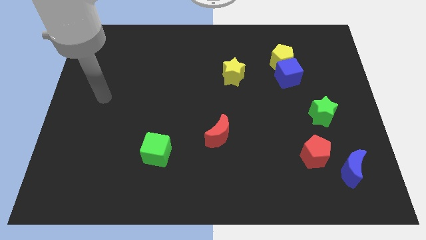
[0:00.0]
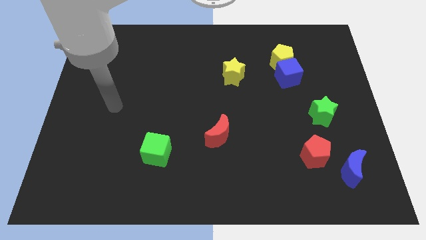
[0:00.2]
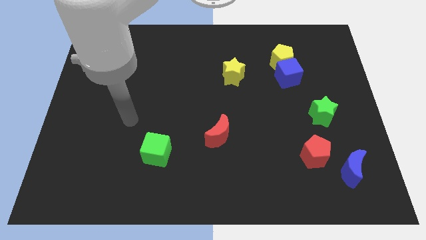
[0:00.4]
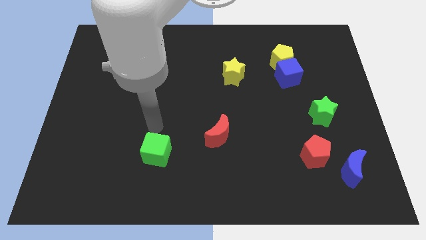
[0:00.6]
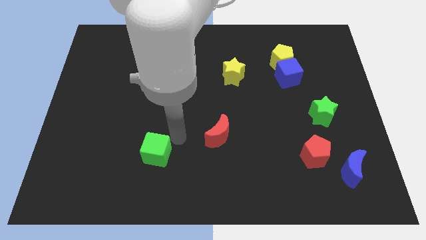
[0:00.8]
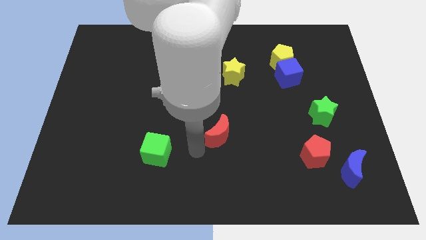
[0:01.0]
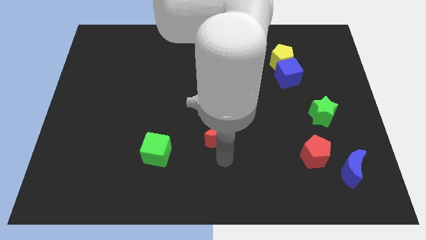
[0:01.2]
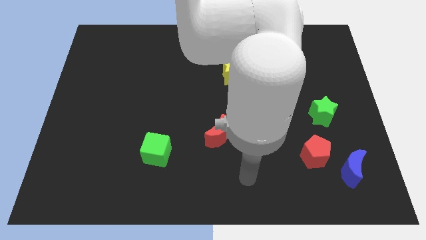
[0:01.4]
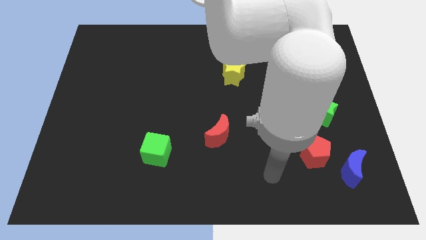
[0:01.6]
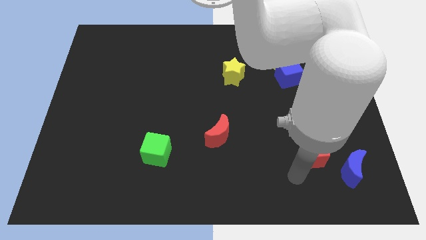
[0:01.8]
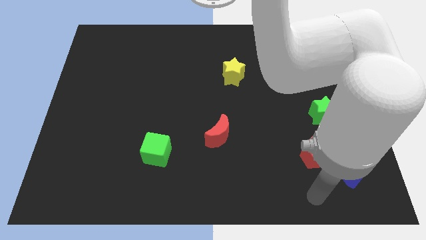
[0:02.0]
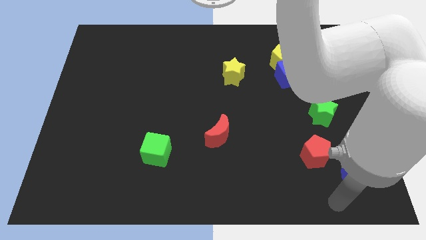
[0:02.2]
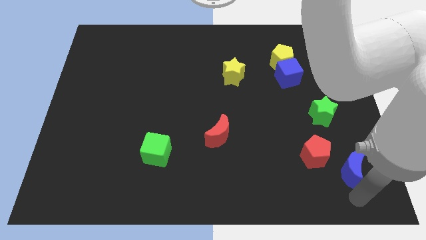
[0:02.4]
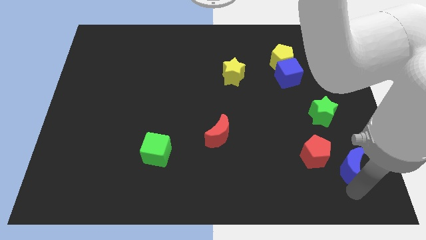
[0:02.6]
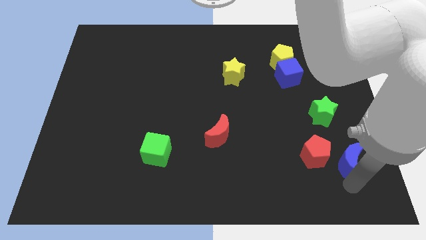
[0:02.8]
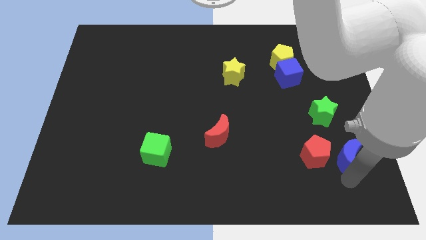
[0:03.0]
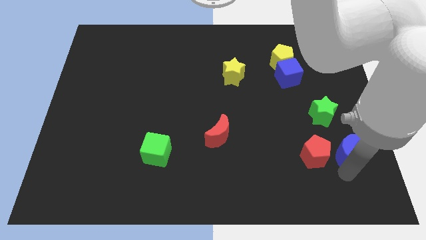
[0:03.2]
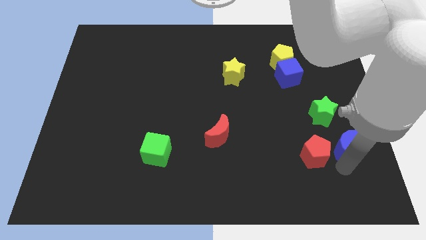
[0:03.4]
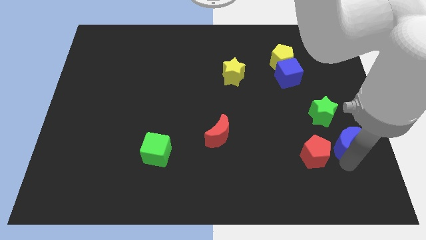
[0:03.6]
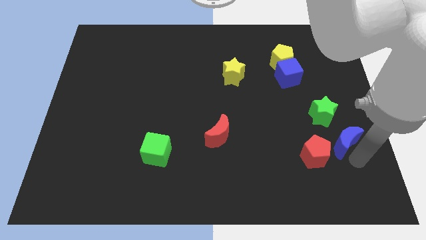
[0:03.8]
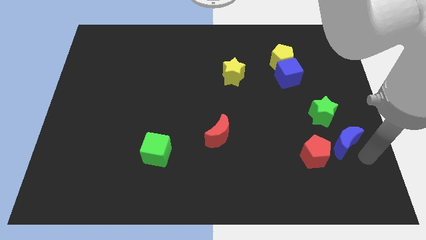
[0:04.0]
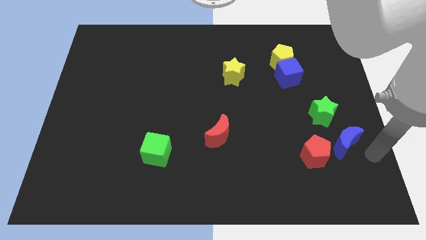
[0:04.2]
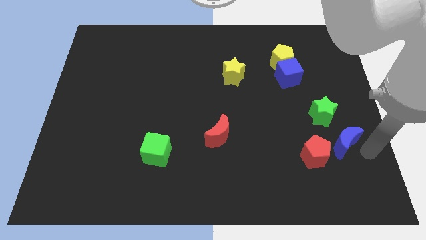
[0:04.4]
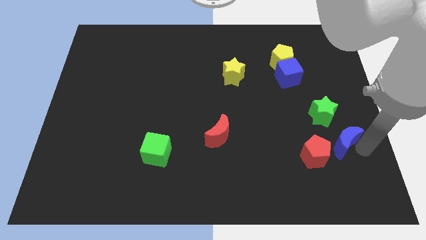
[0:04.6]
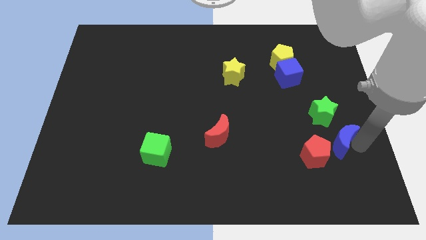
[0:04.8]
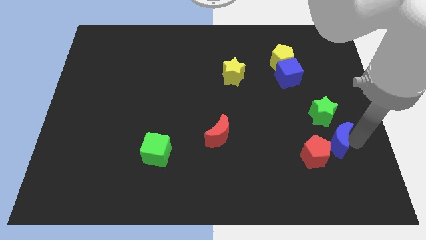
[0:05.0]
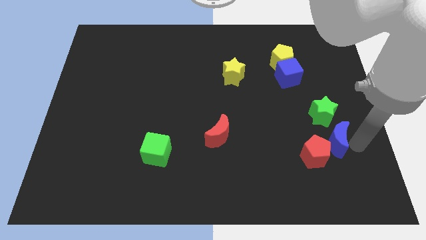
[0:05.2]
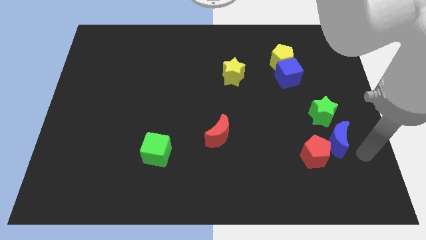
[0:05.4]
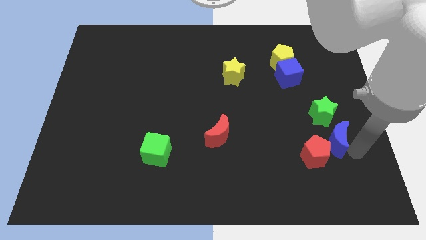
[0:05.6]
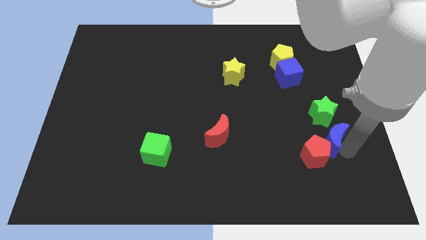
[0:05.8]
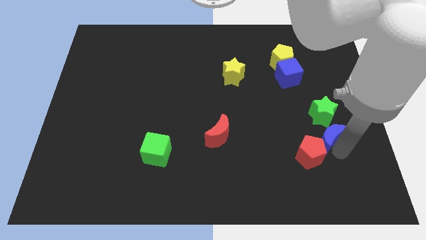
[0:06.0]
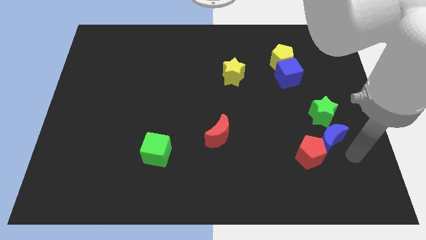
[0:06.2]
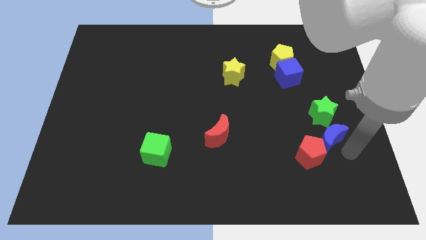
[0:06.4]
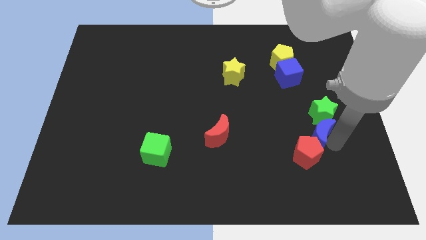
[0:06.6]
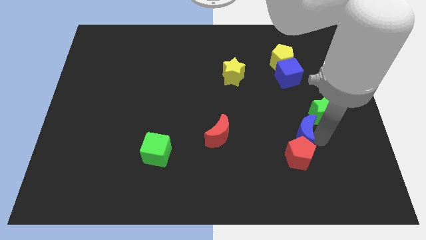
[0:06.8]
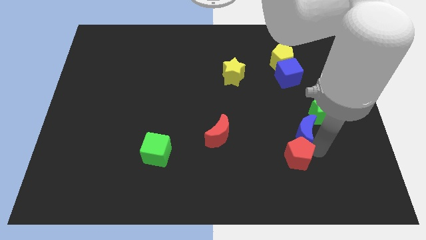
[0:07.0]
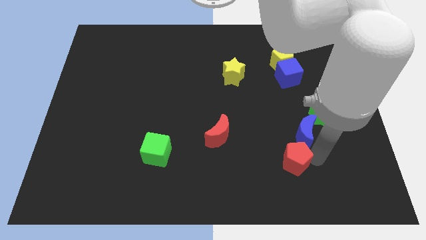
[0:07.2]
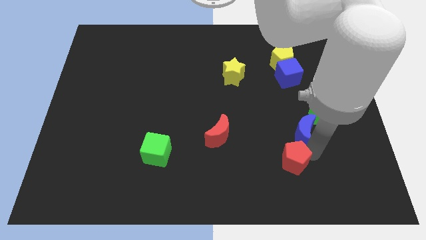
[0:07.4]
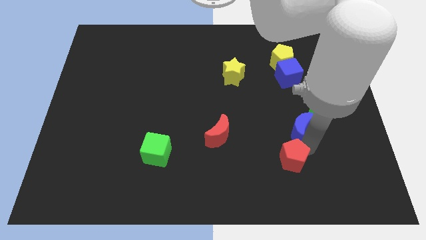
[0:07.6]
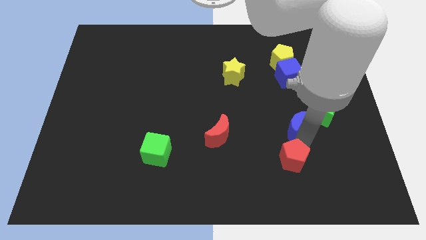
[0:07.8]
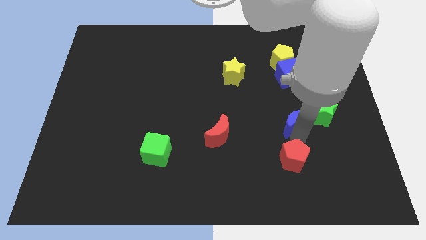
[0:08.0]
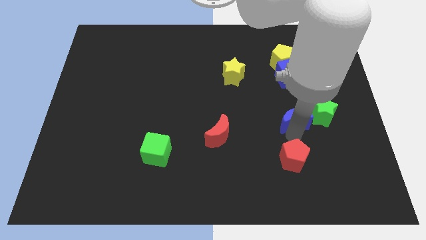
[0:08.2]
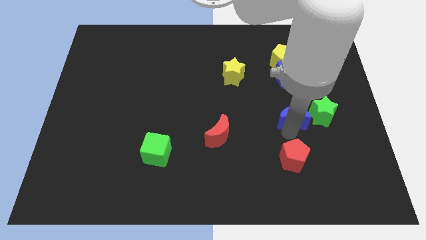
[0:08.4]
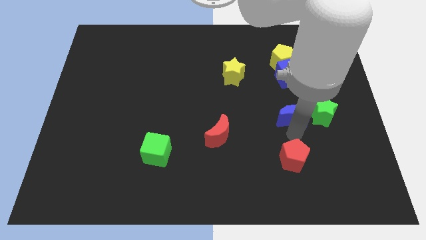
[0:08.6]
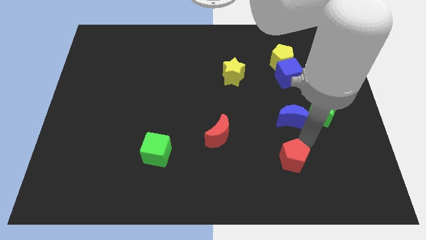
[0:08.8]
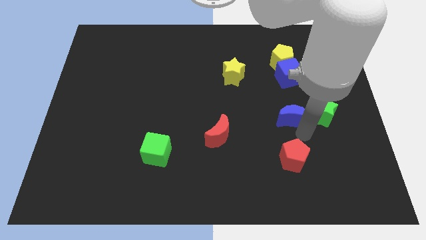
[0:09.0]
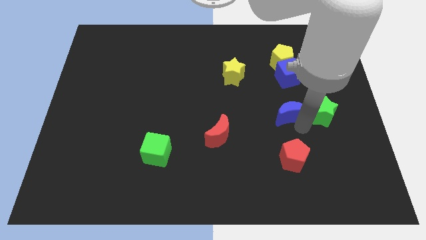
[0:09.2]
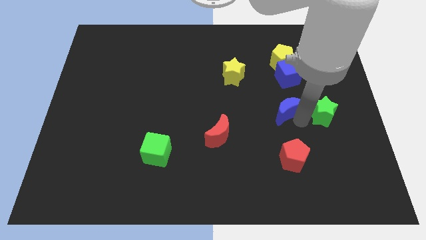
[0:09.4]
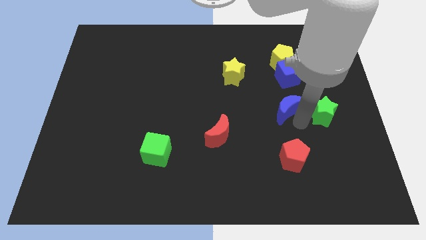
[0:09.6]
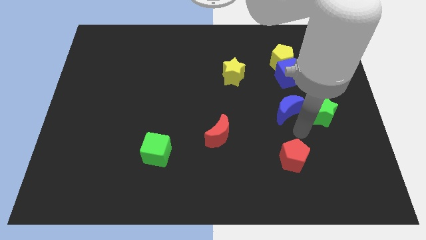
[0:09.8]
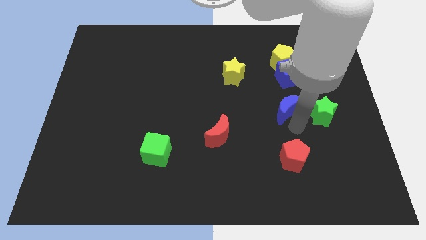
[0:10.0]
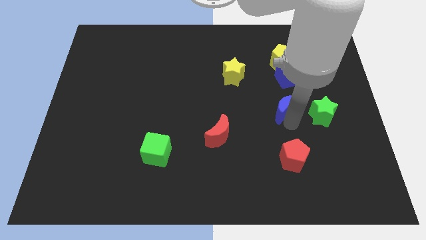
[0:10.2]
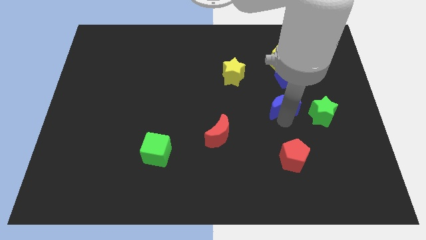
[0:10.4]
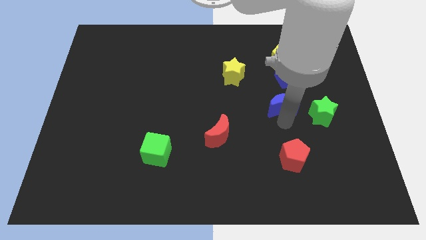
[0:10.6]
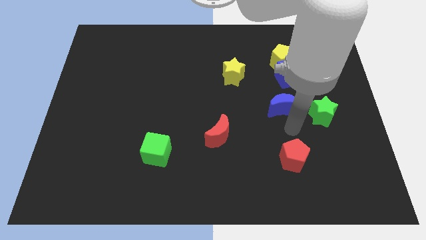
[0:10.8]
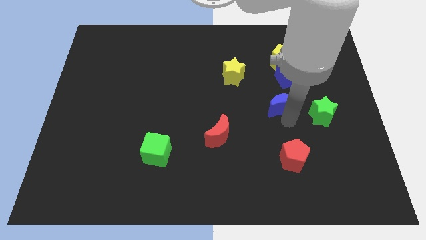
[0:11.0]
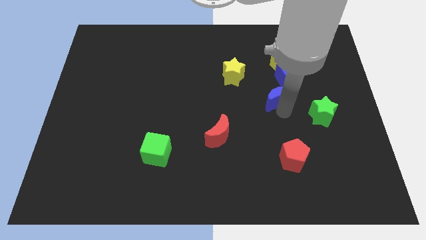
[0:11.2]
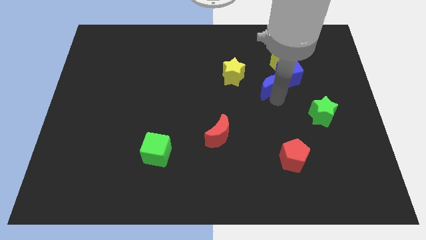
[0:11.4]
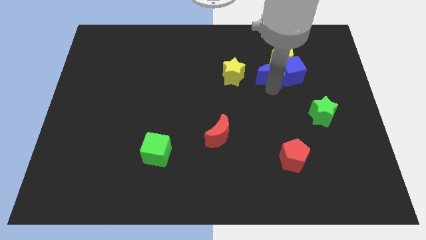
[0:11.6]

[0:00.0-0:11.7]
put the blue moon diagonally up and to the left of the blue cube
